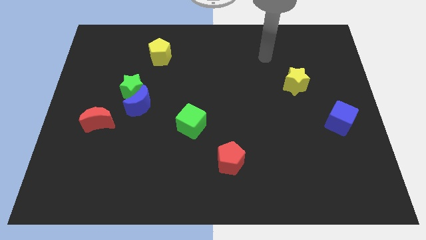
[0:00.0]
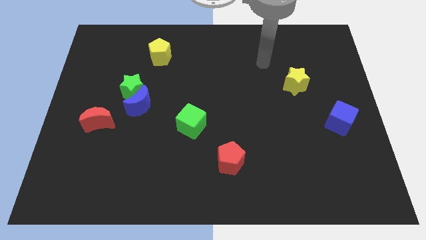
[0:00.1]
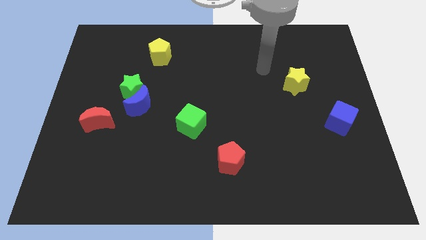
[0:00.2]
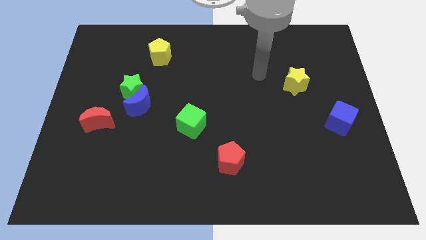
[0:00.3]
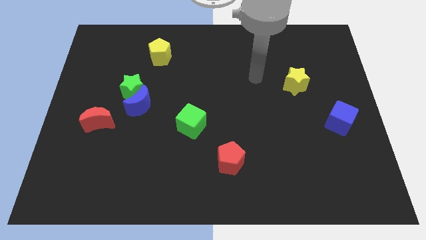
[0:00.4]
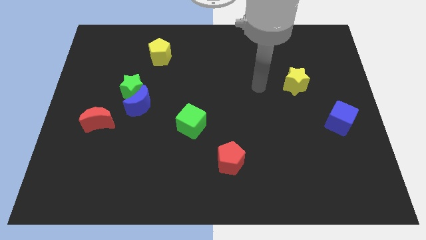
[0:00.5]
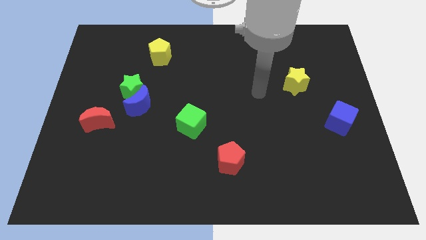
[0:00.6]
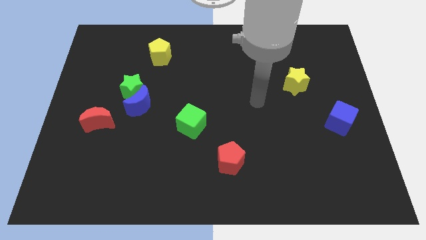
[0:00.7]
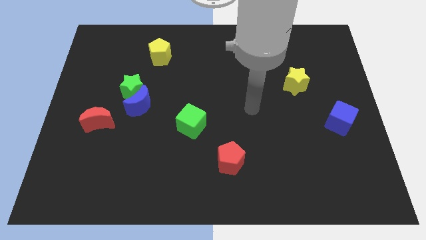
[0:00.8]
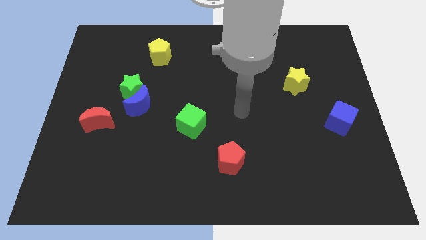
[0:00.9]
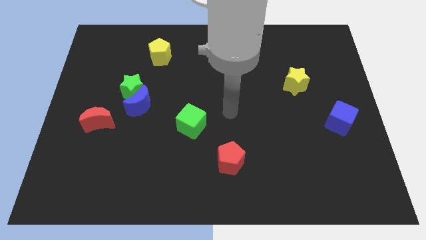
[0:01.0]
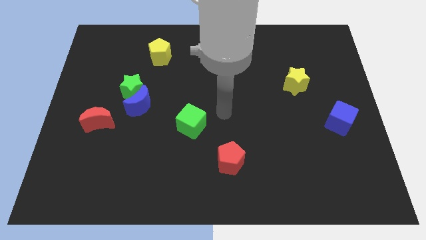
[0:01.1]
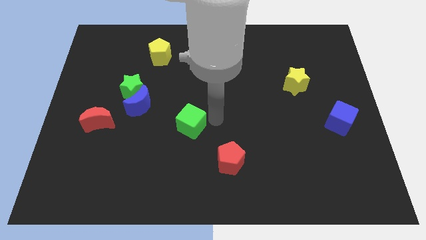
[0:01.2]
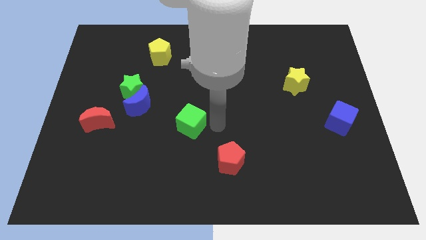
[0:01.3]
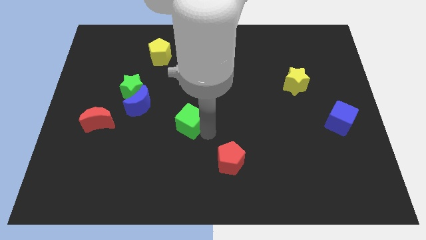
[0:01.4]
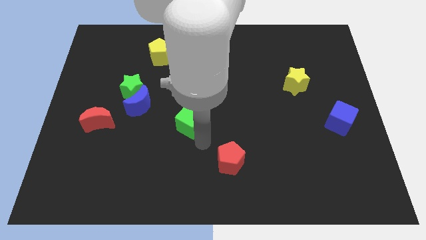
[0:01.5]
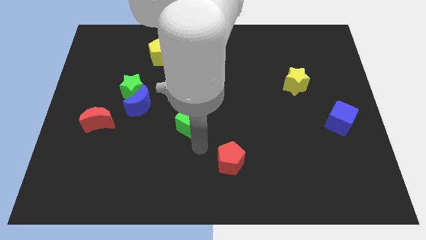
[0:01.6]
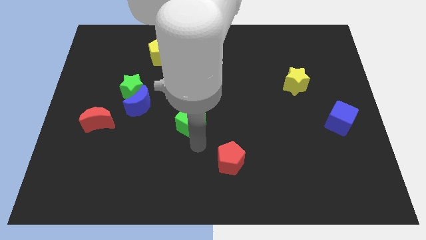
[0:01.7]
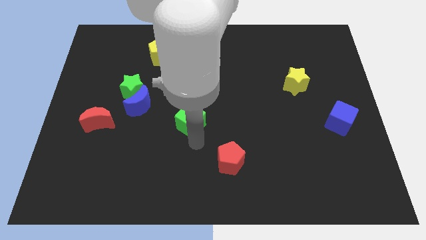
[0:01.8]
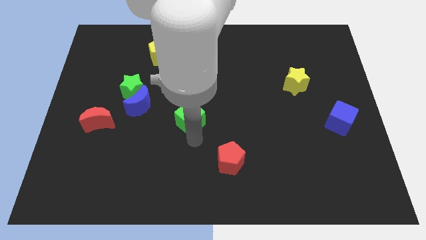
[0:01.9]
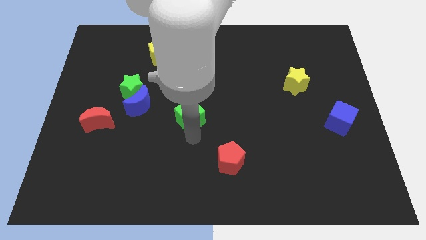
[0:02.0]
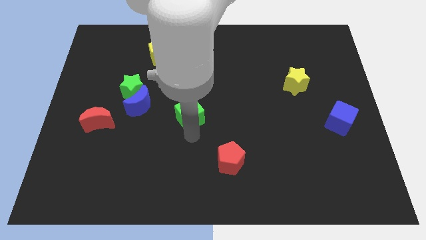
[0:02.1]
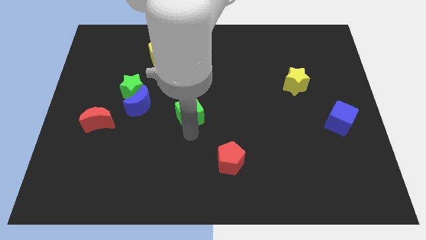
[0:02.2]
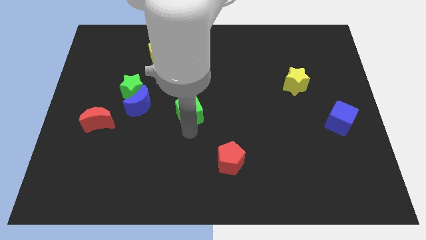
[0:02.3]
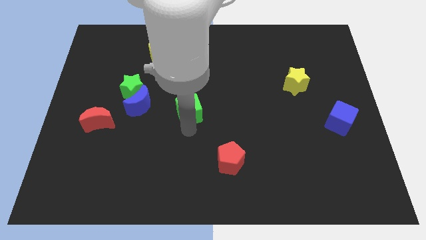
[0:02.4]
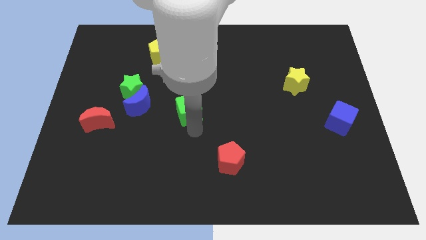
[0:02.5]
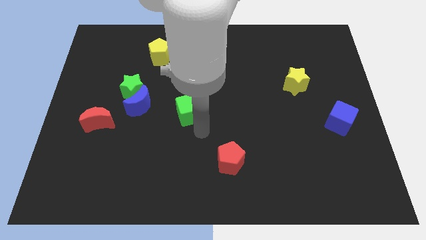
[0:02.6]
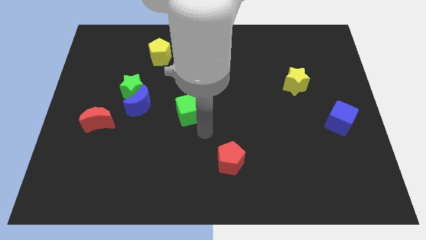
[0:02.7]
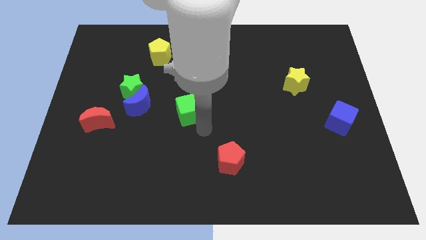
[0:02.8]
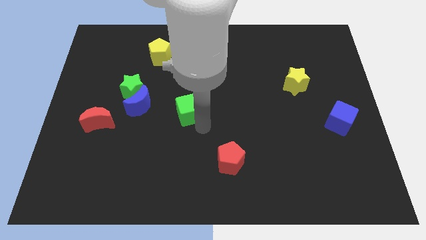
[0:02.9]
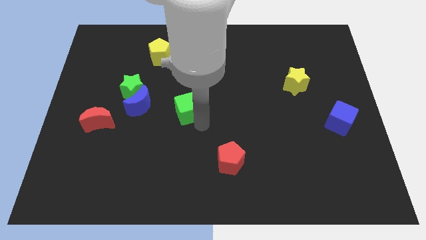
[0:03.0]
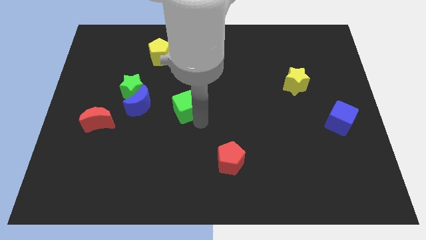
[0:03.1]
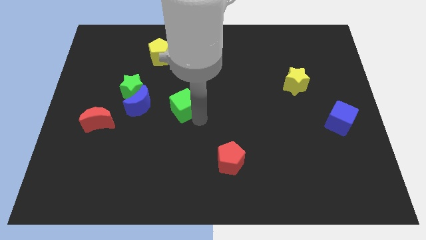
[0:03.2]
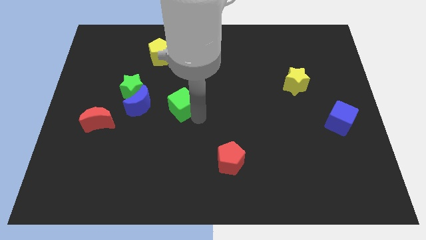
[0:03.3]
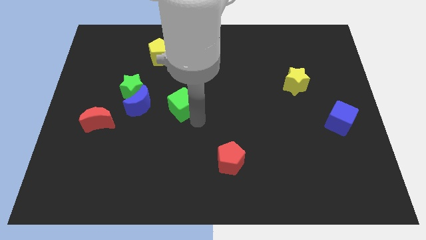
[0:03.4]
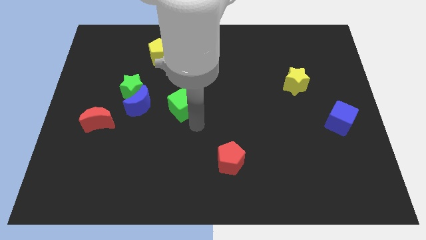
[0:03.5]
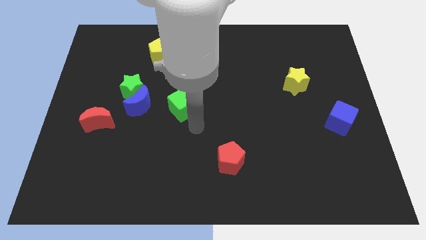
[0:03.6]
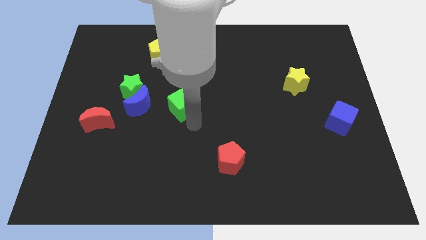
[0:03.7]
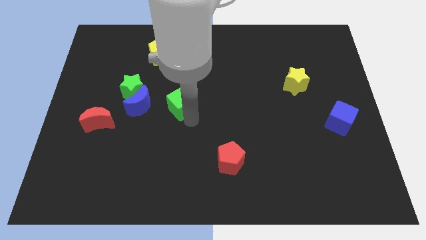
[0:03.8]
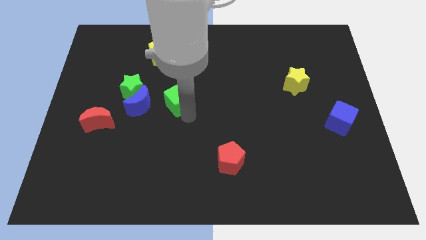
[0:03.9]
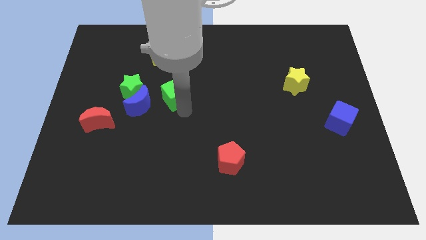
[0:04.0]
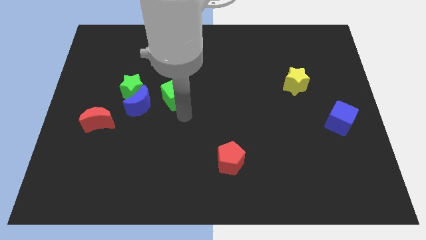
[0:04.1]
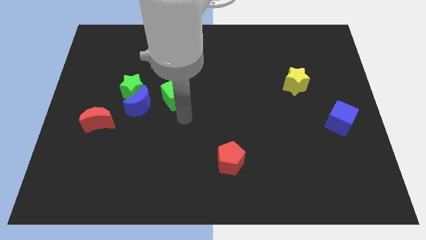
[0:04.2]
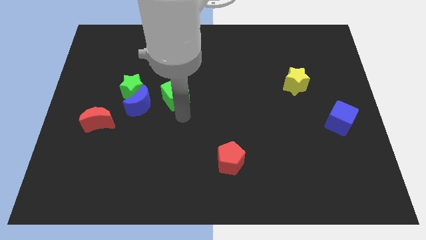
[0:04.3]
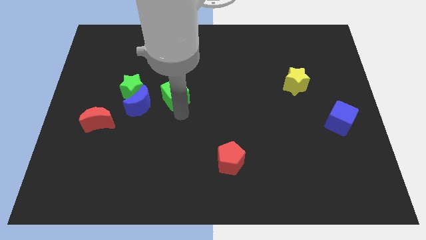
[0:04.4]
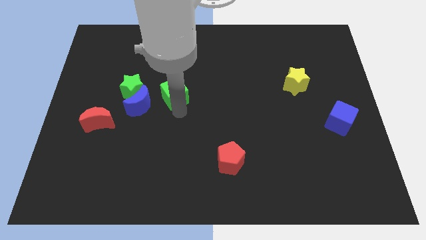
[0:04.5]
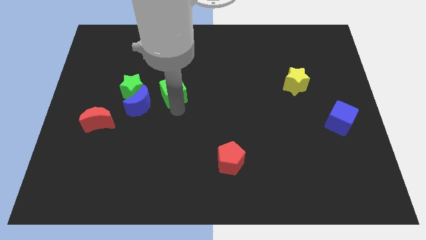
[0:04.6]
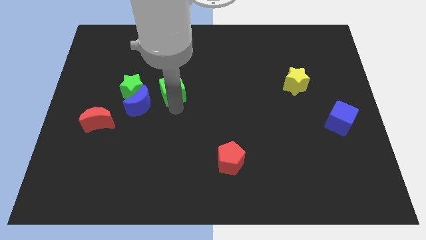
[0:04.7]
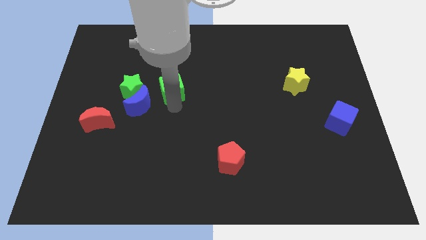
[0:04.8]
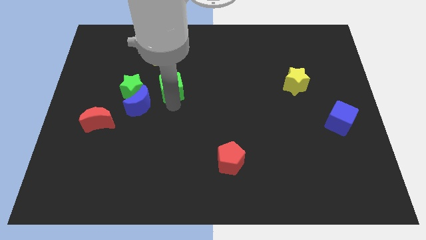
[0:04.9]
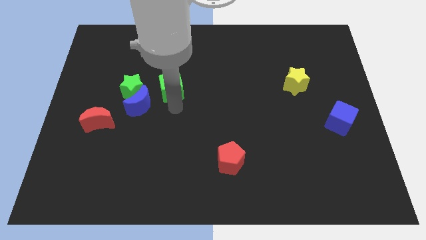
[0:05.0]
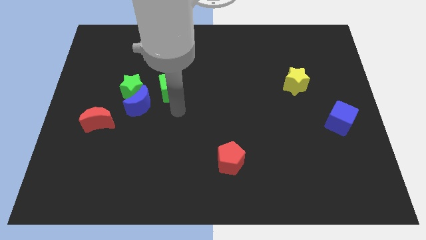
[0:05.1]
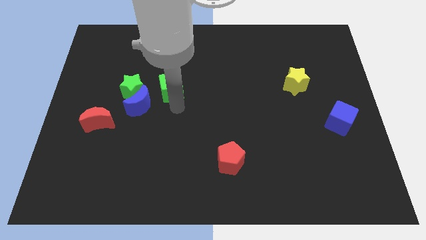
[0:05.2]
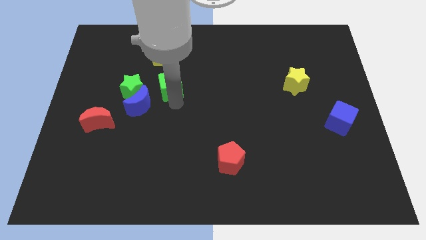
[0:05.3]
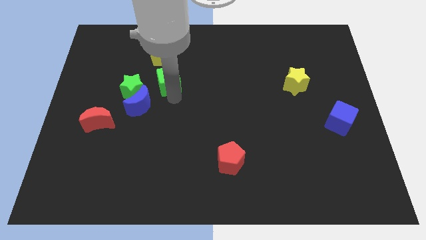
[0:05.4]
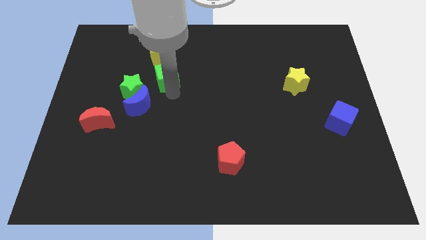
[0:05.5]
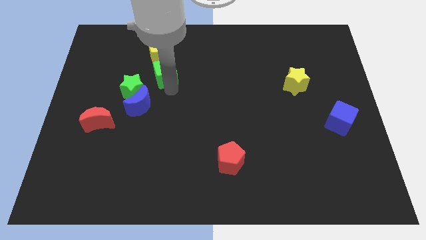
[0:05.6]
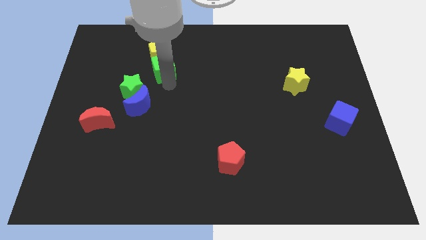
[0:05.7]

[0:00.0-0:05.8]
slide the green cube close to the yellow pentagon

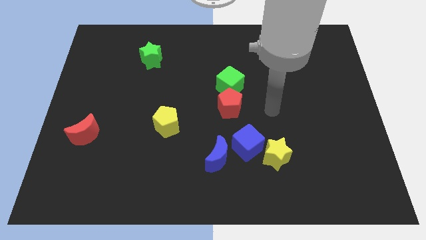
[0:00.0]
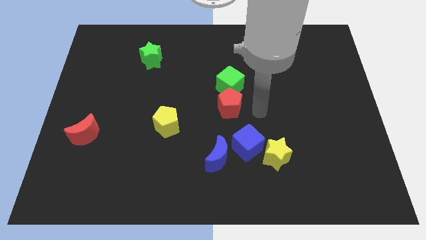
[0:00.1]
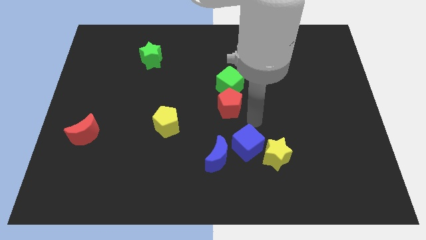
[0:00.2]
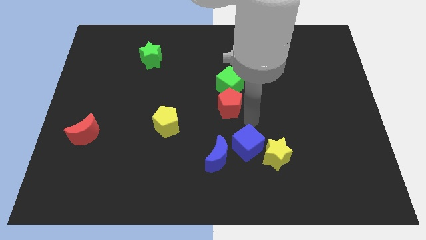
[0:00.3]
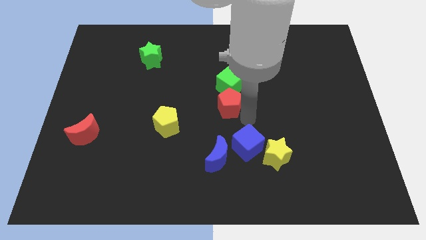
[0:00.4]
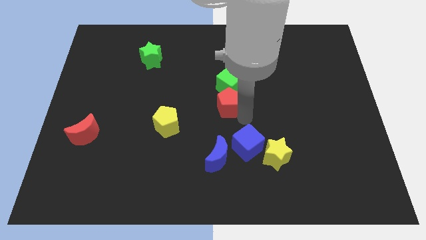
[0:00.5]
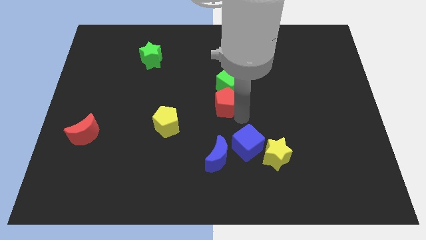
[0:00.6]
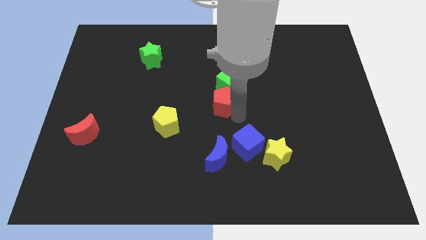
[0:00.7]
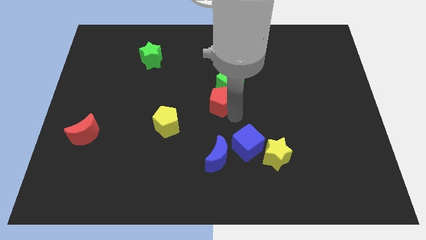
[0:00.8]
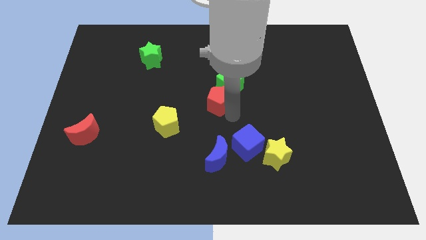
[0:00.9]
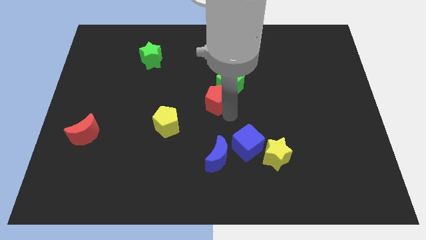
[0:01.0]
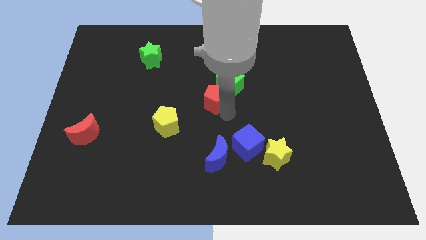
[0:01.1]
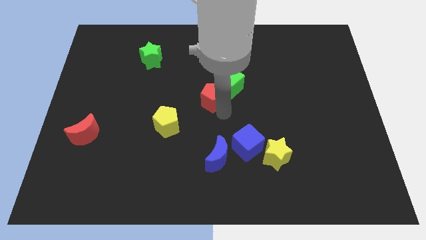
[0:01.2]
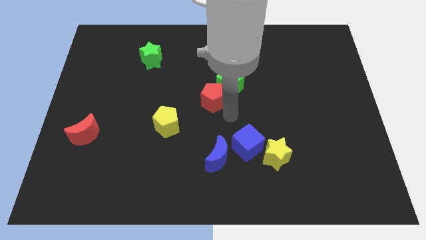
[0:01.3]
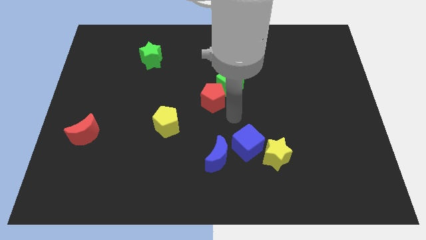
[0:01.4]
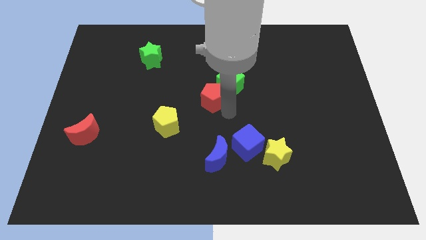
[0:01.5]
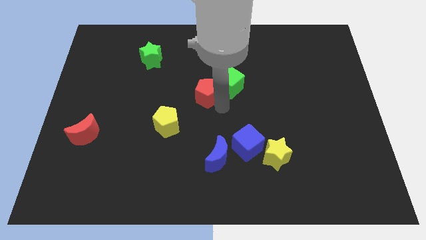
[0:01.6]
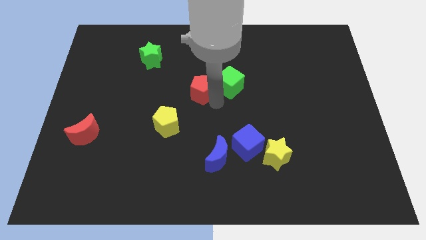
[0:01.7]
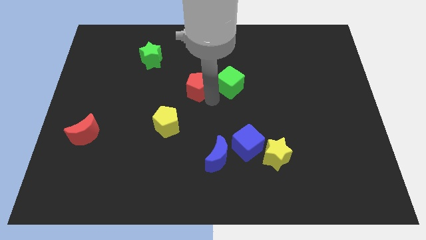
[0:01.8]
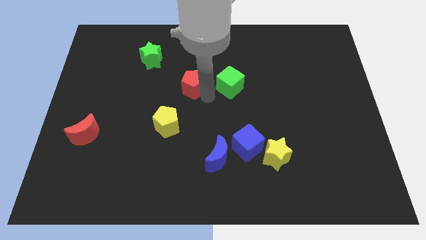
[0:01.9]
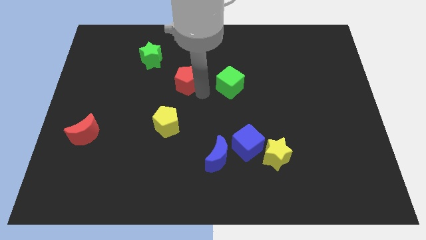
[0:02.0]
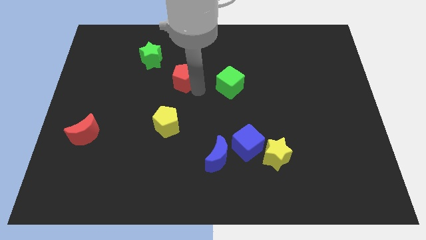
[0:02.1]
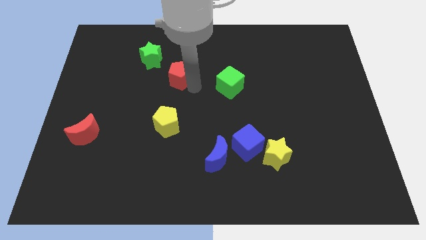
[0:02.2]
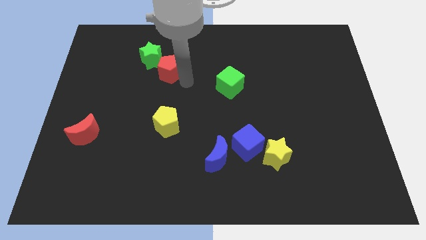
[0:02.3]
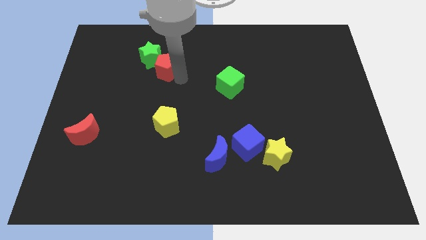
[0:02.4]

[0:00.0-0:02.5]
push the red pentagon to the green star
